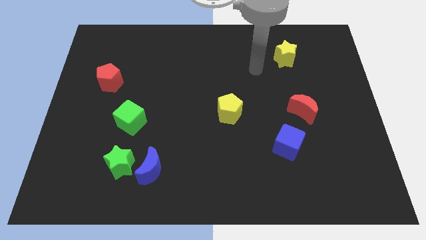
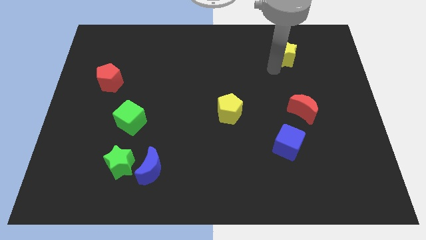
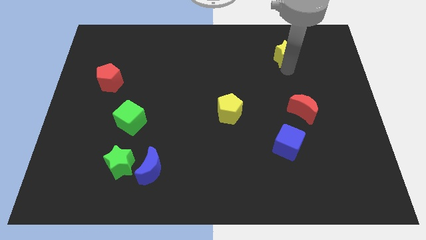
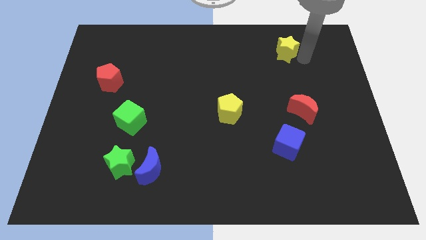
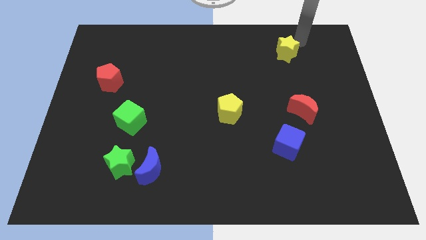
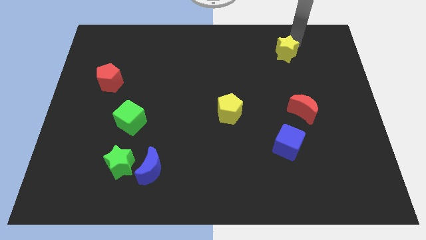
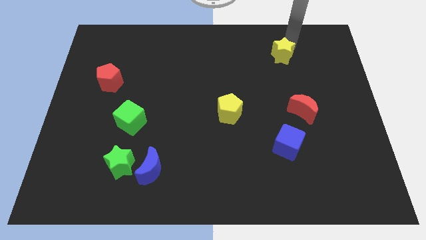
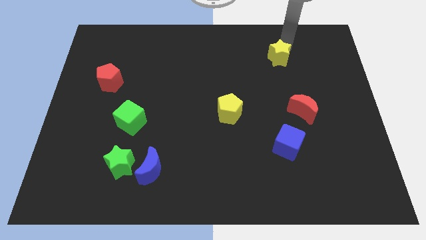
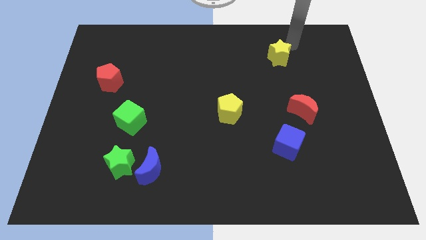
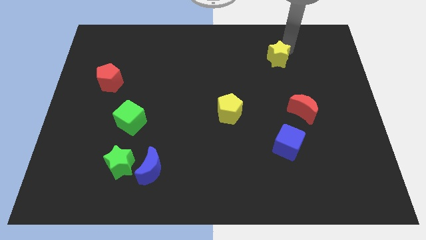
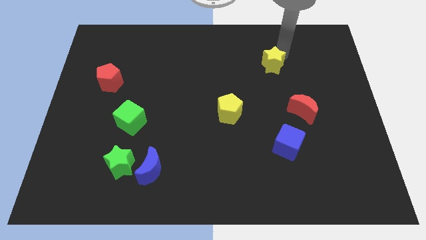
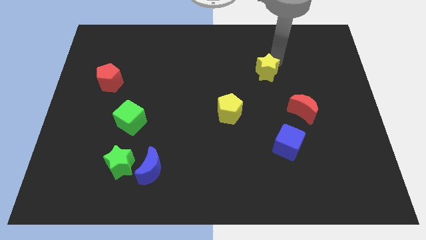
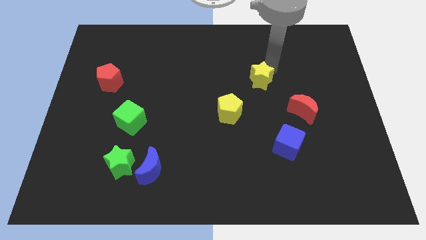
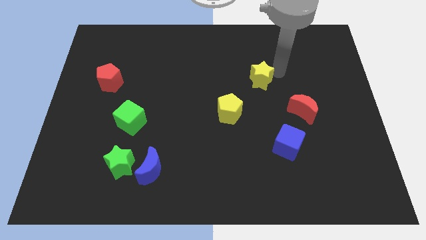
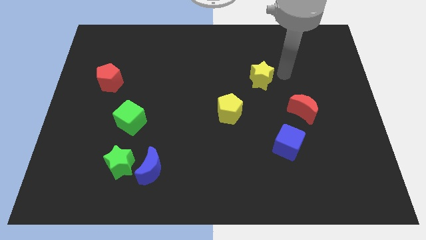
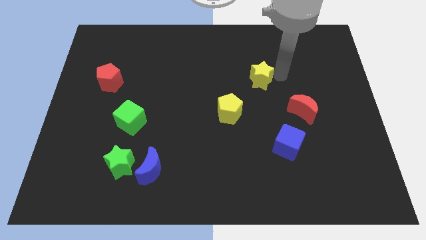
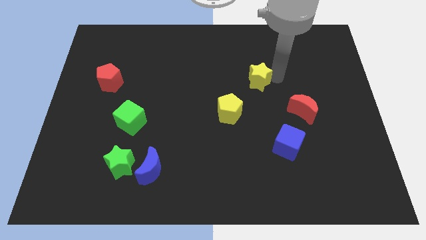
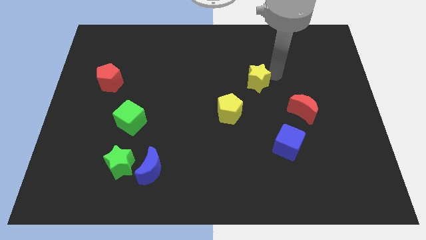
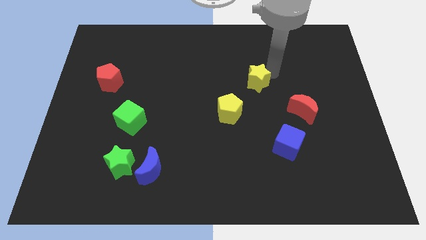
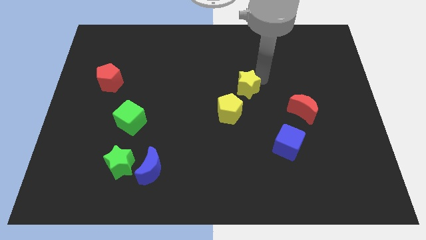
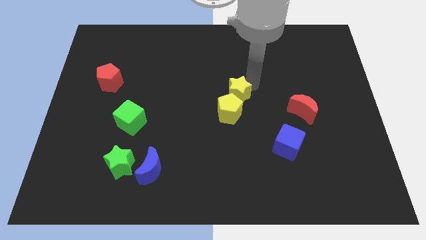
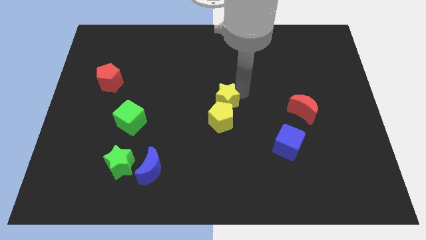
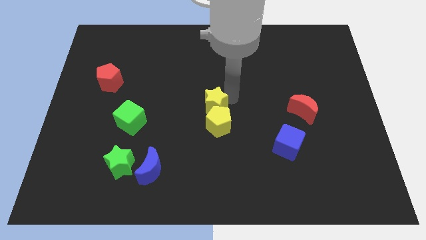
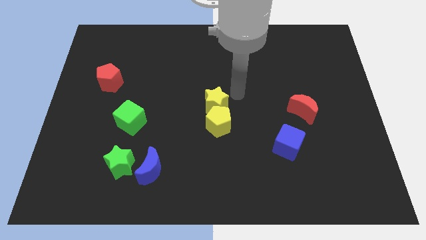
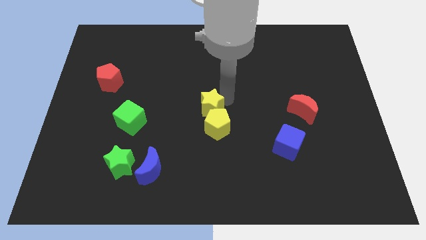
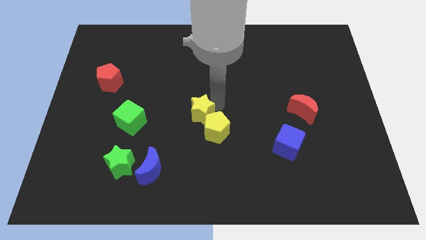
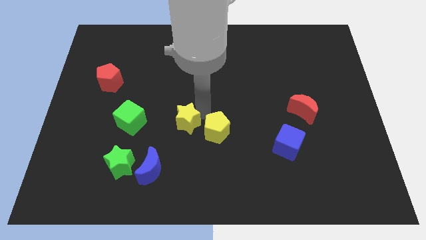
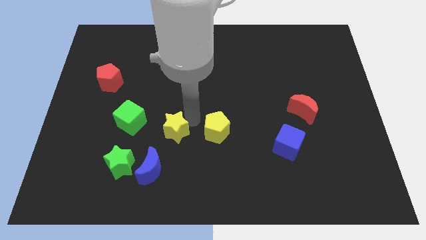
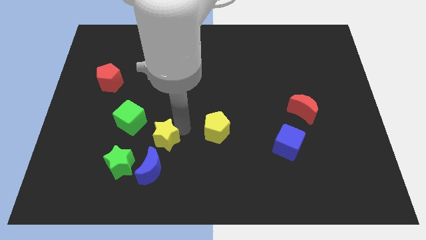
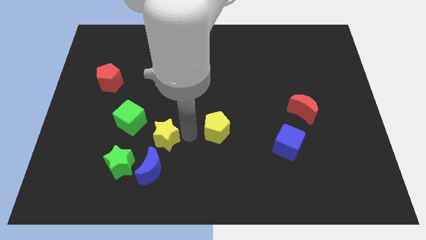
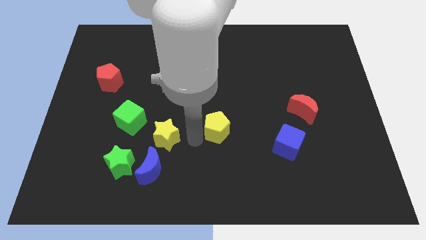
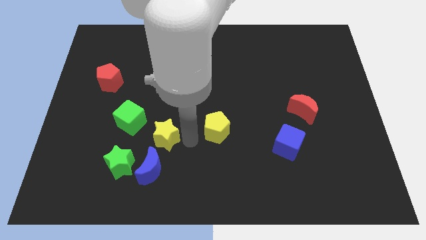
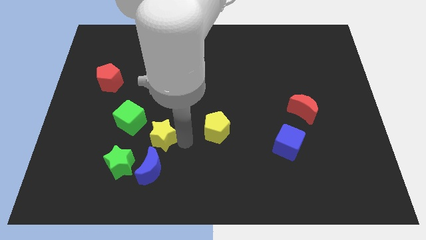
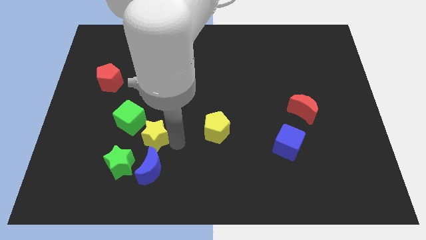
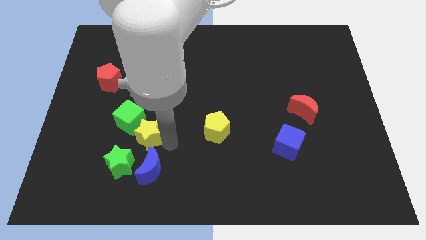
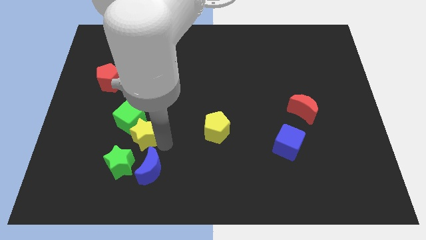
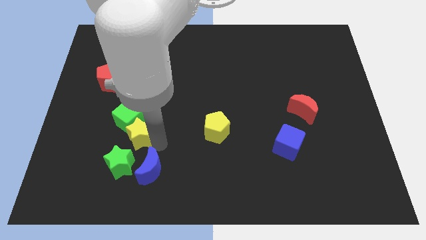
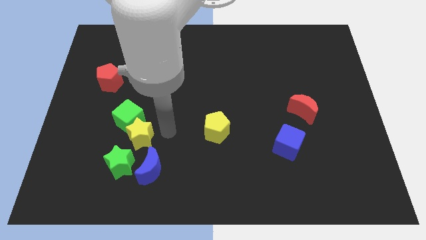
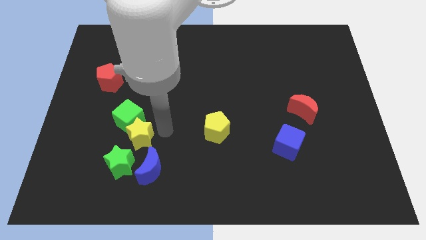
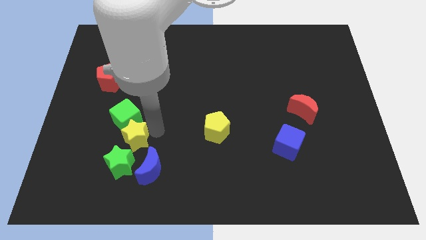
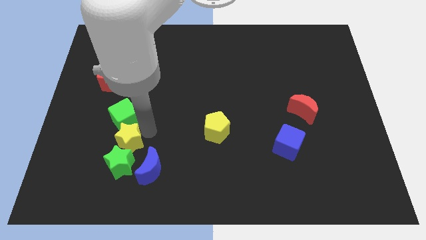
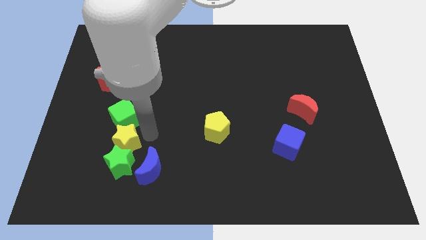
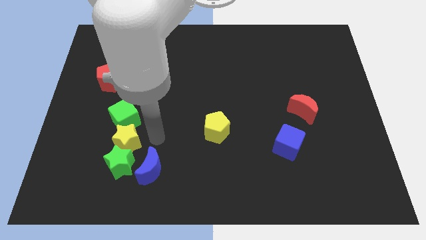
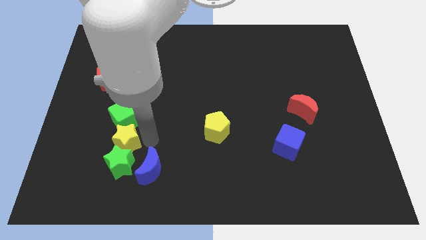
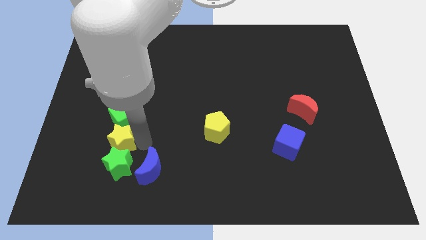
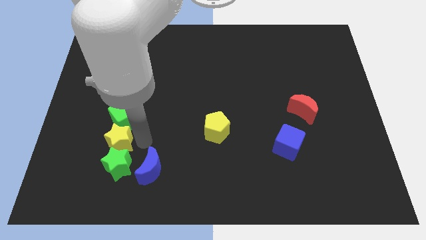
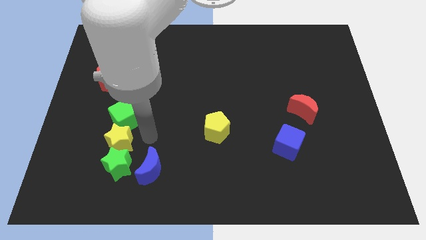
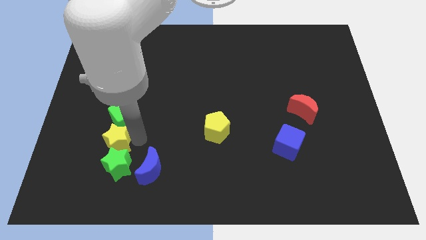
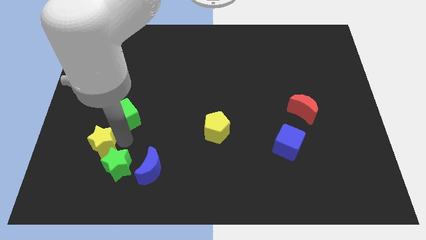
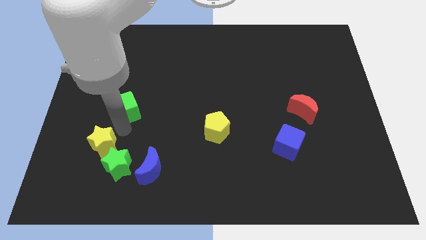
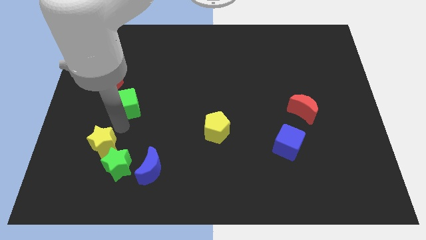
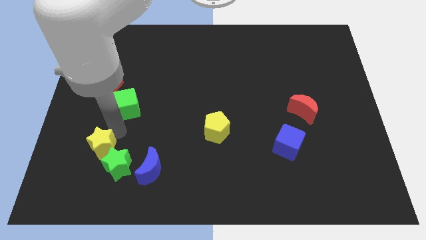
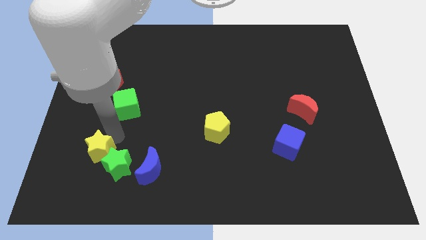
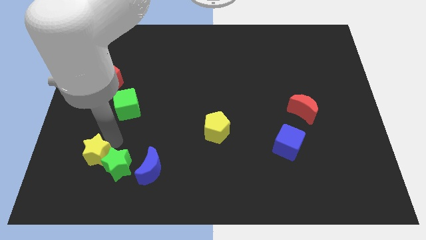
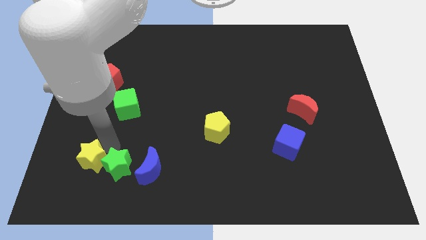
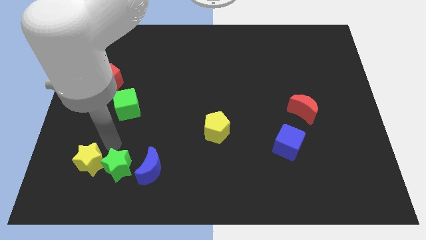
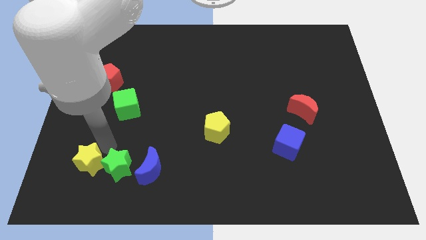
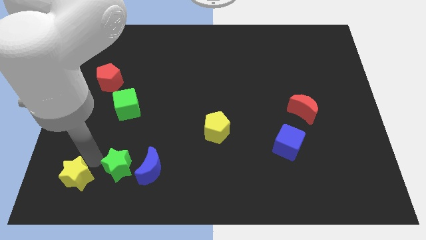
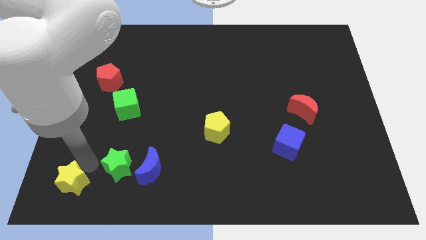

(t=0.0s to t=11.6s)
put the yellow star to the bottom left of the board
